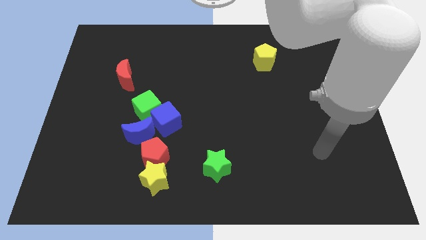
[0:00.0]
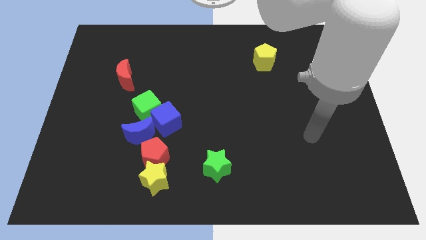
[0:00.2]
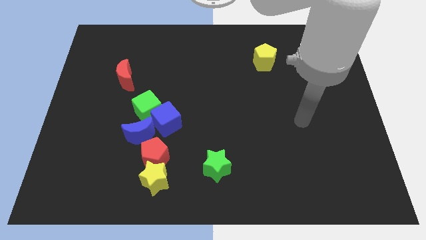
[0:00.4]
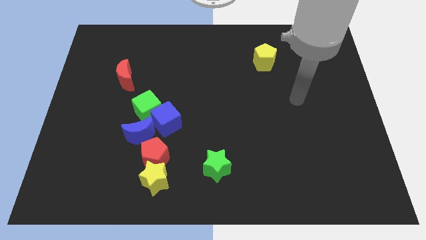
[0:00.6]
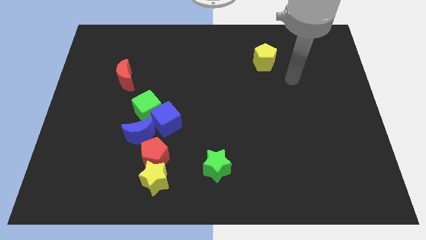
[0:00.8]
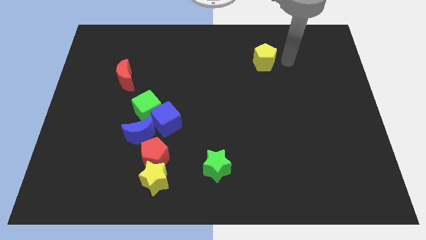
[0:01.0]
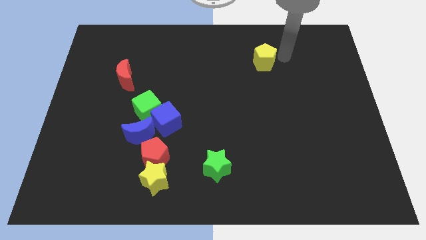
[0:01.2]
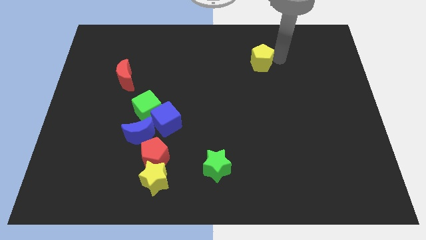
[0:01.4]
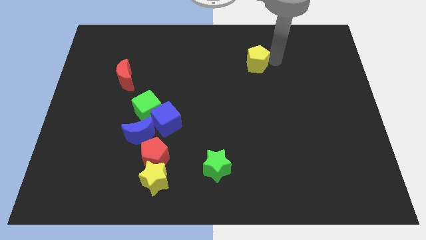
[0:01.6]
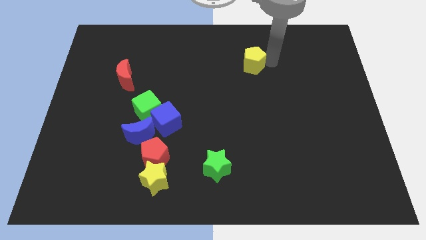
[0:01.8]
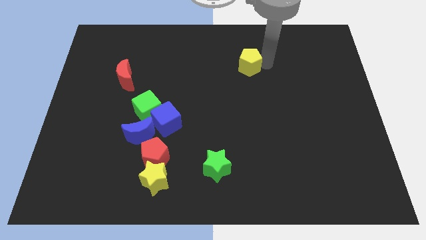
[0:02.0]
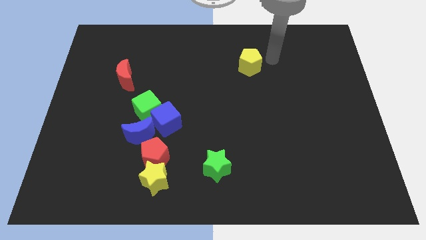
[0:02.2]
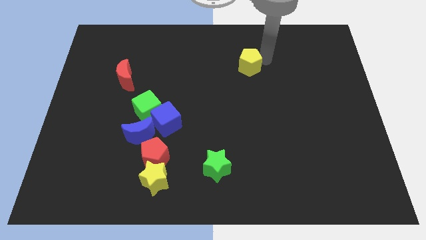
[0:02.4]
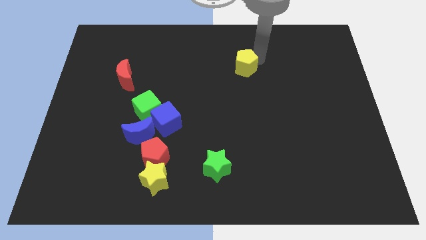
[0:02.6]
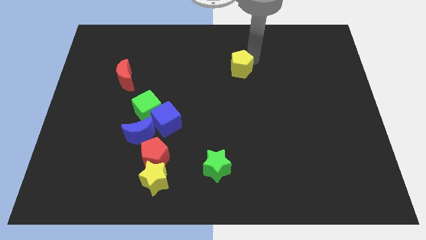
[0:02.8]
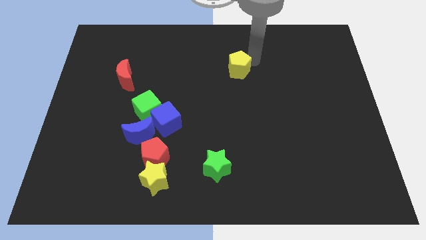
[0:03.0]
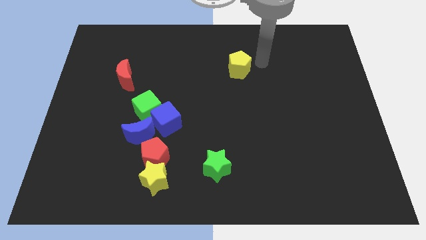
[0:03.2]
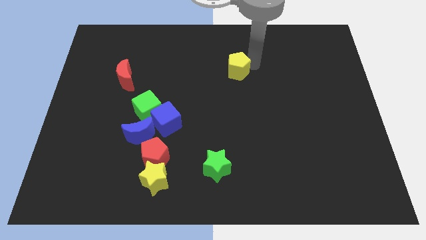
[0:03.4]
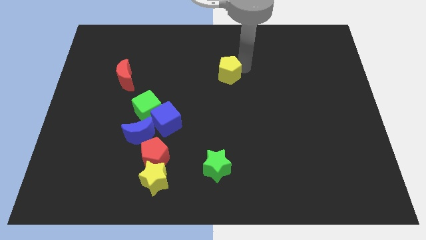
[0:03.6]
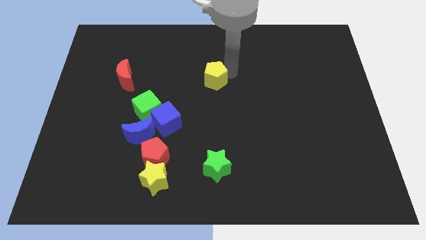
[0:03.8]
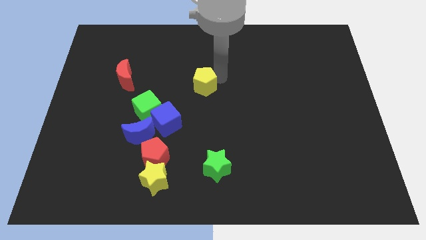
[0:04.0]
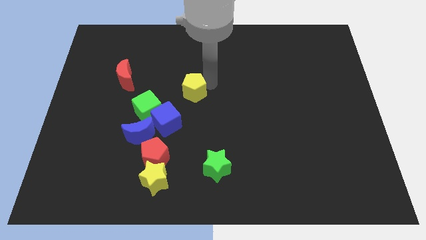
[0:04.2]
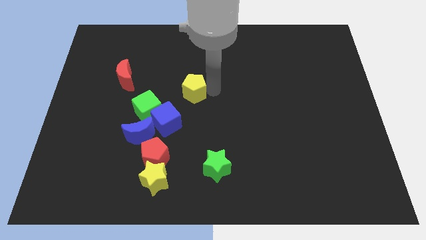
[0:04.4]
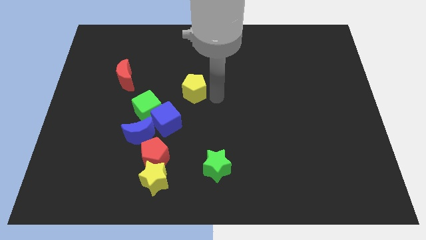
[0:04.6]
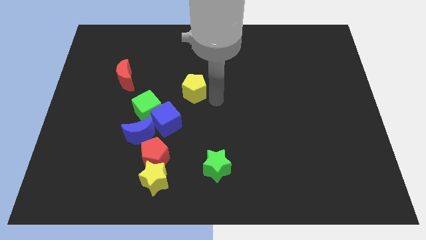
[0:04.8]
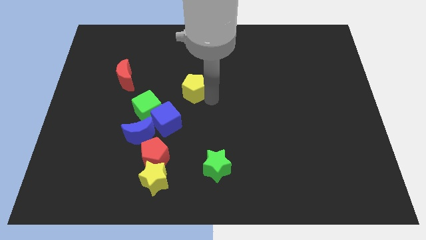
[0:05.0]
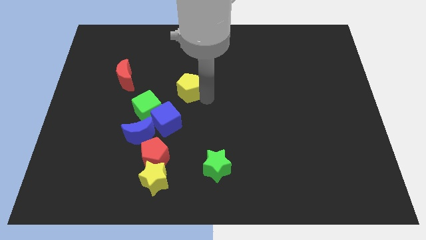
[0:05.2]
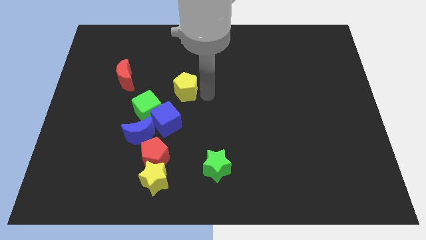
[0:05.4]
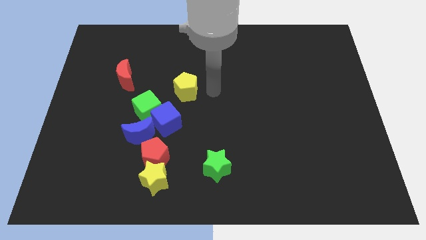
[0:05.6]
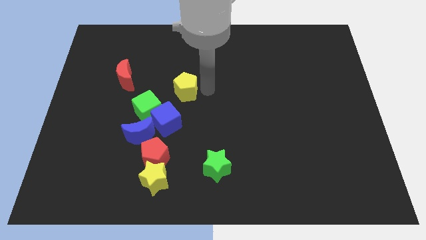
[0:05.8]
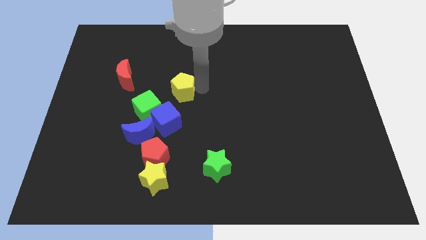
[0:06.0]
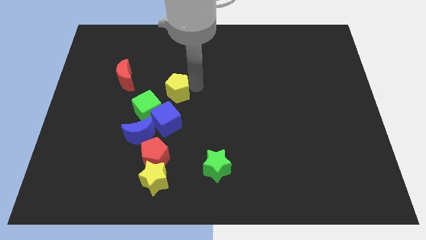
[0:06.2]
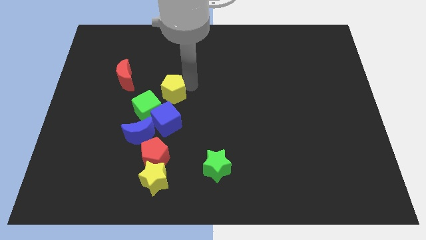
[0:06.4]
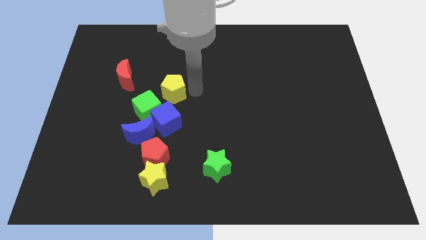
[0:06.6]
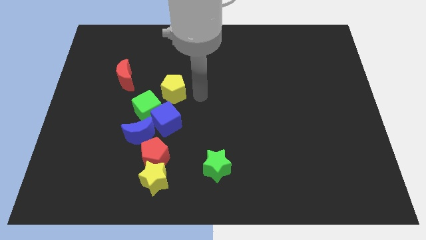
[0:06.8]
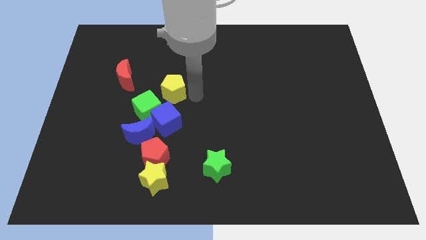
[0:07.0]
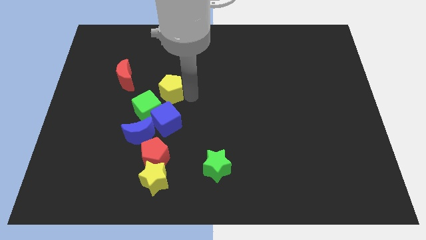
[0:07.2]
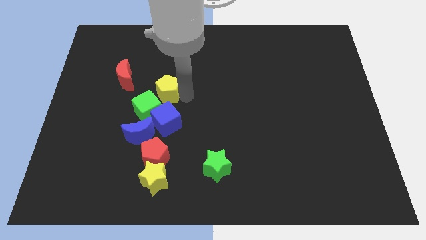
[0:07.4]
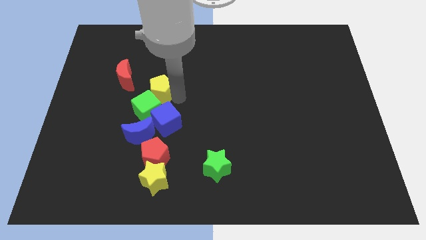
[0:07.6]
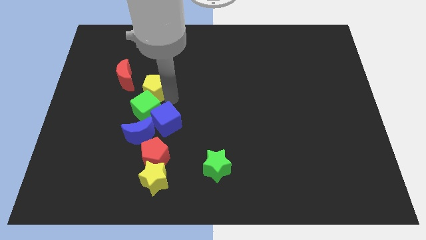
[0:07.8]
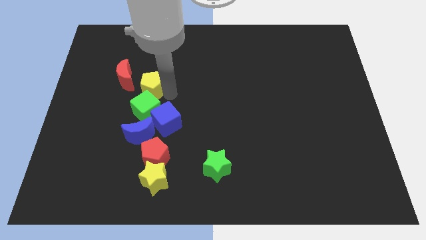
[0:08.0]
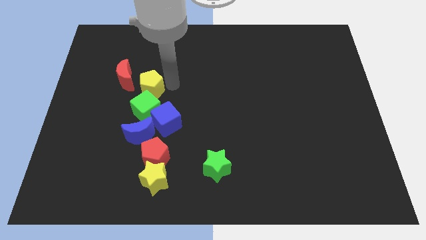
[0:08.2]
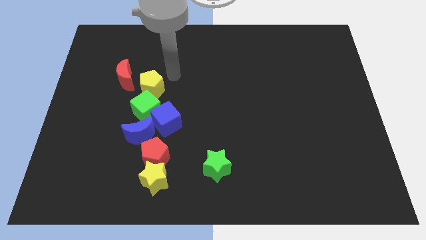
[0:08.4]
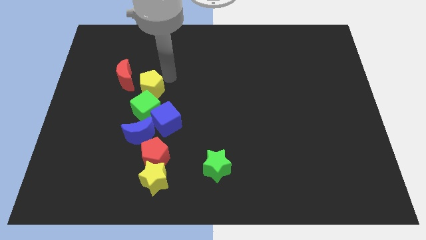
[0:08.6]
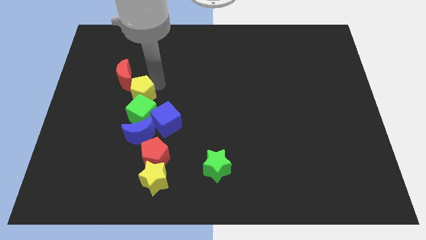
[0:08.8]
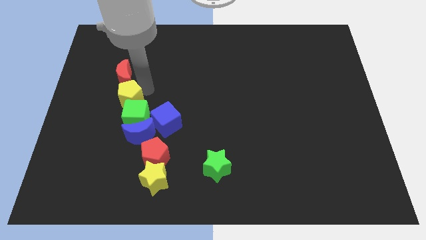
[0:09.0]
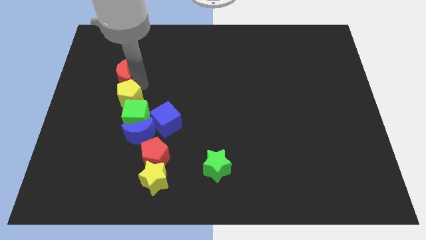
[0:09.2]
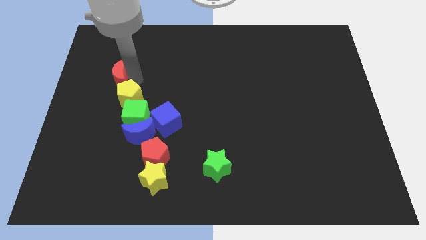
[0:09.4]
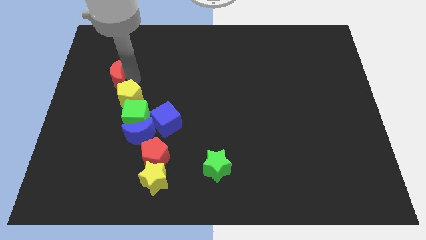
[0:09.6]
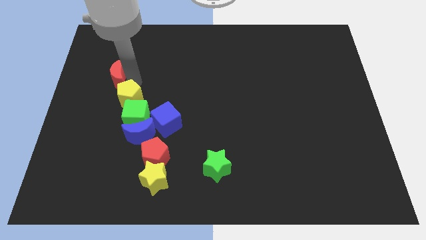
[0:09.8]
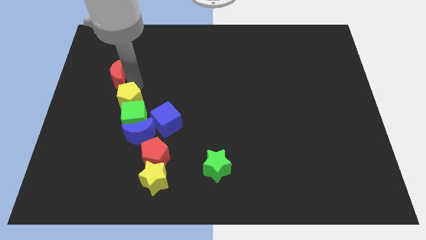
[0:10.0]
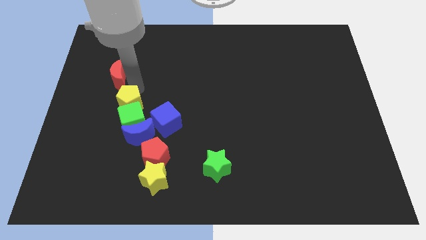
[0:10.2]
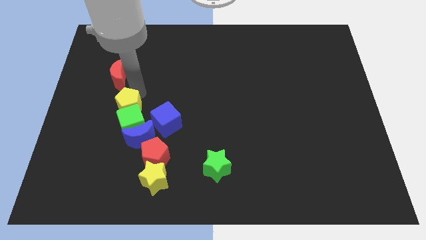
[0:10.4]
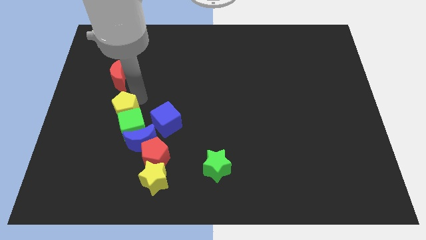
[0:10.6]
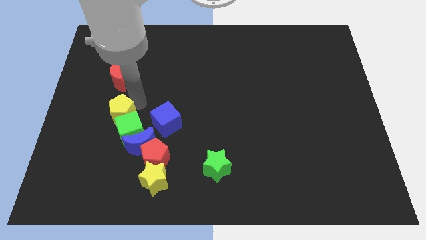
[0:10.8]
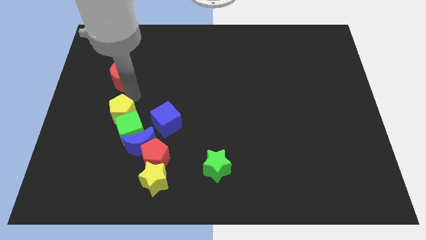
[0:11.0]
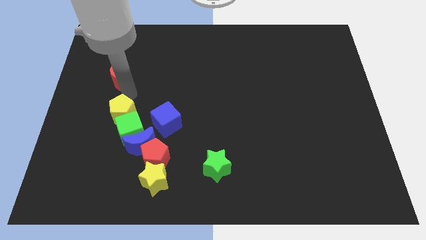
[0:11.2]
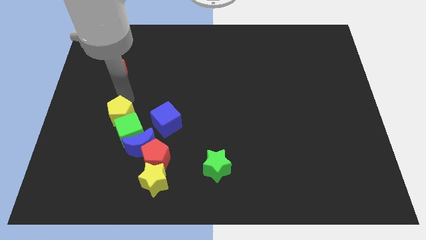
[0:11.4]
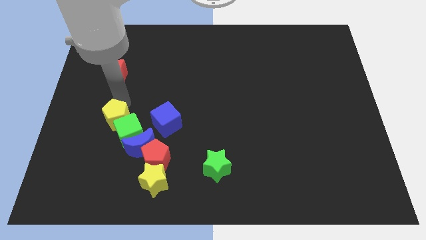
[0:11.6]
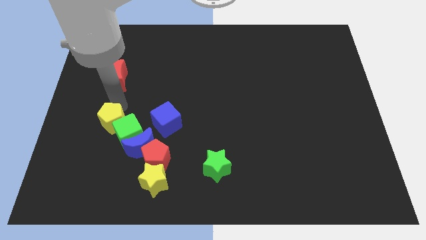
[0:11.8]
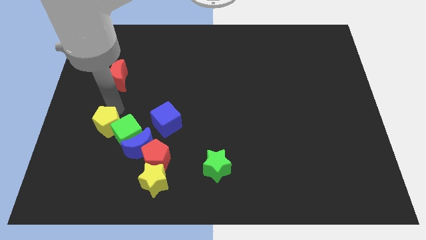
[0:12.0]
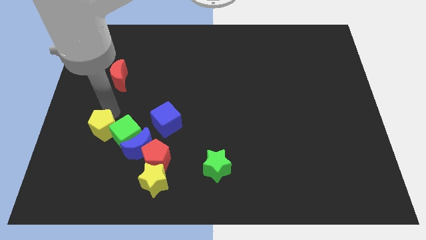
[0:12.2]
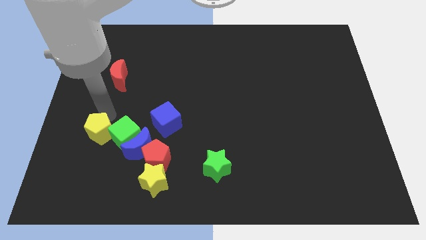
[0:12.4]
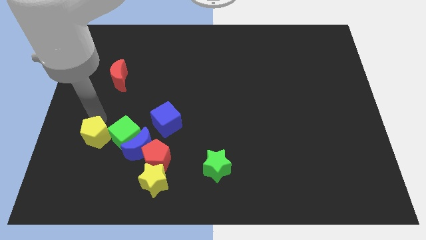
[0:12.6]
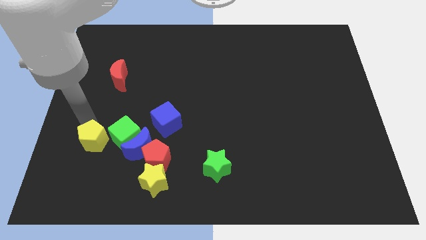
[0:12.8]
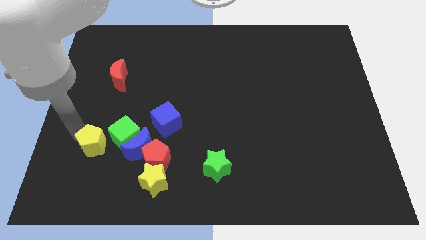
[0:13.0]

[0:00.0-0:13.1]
slide the yellow pentagon to the left of the red pentagon

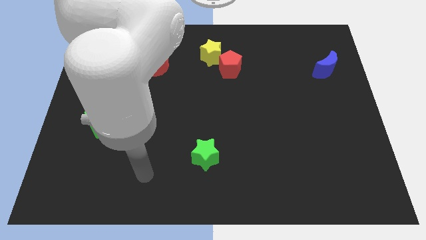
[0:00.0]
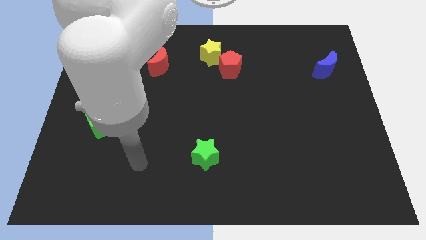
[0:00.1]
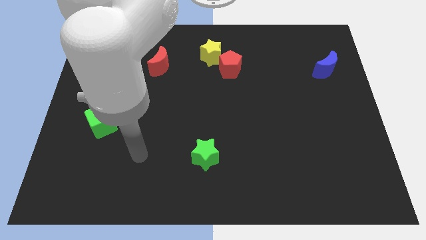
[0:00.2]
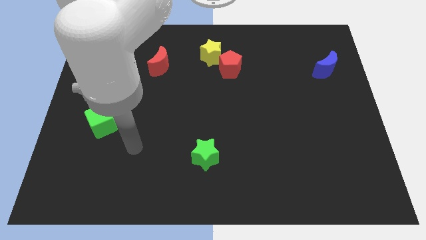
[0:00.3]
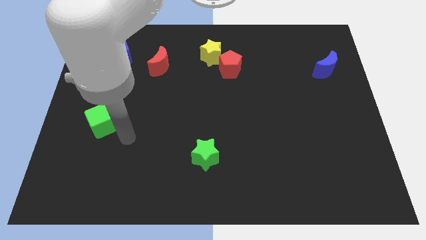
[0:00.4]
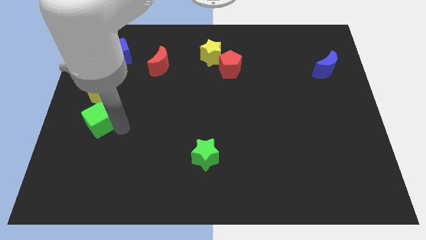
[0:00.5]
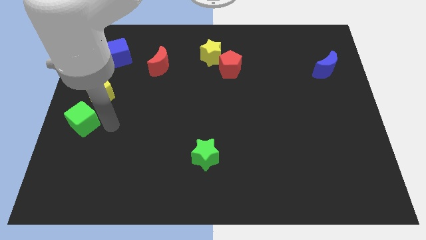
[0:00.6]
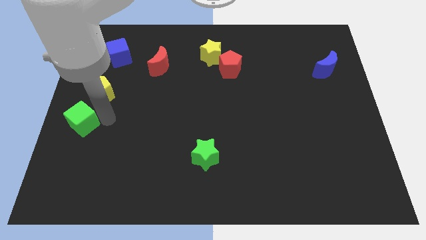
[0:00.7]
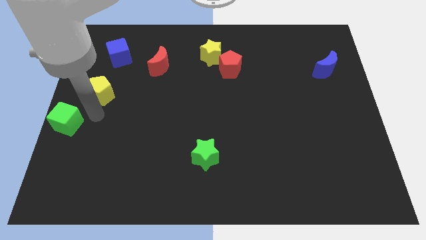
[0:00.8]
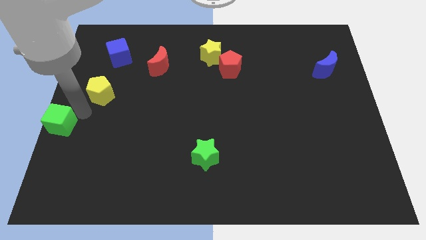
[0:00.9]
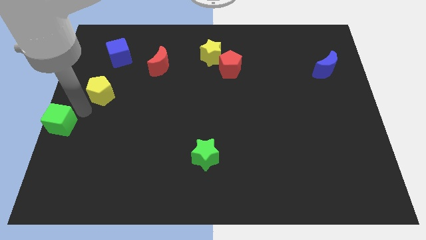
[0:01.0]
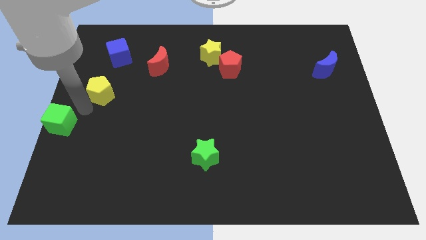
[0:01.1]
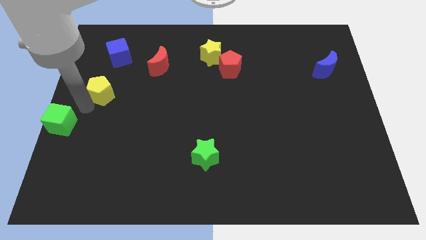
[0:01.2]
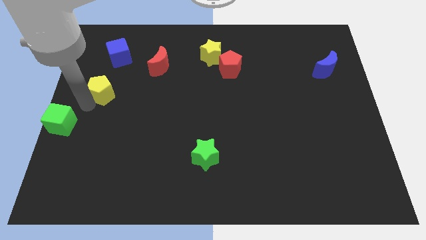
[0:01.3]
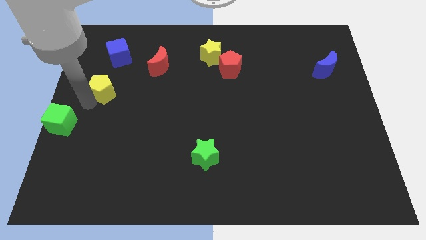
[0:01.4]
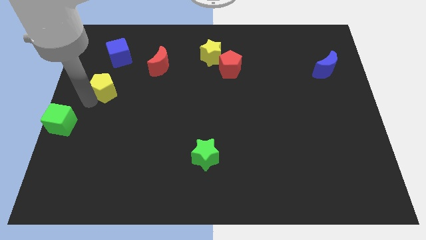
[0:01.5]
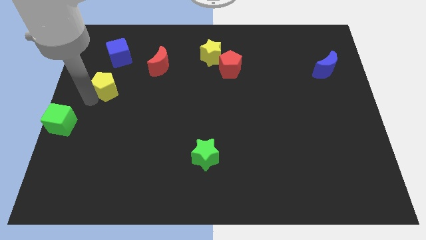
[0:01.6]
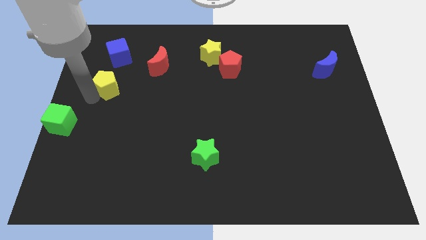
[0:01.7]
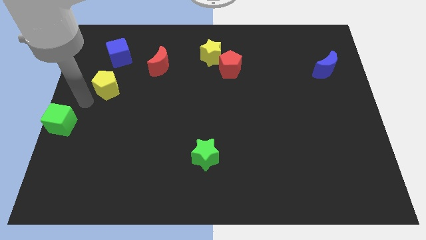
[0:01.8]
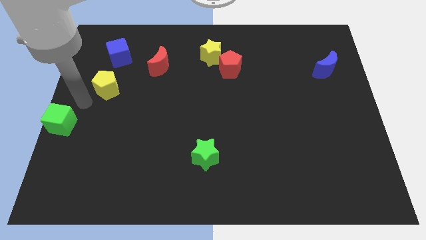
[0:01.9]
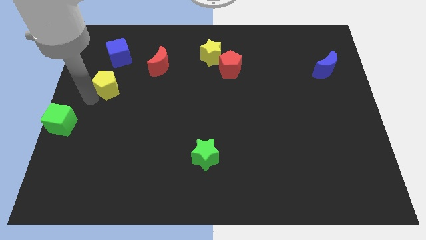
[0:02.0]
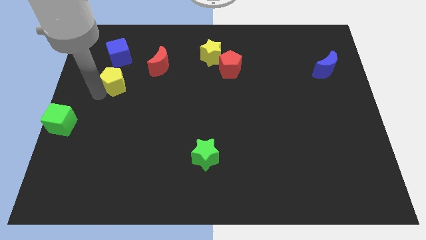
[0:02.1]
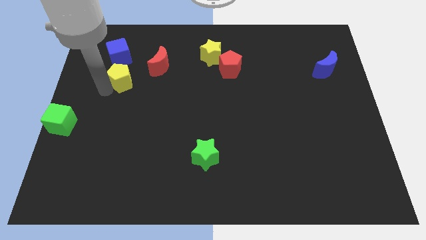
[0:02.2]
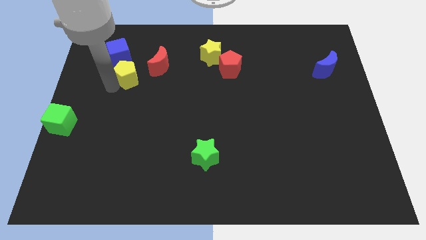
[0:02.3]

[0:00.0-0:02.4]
move the yellow pentagon to the bottom right side of the blue cube
